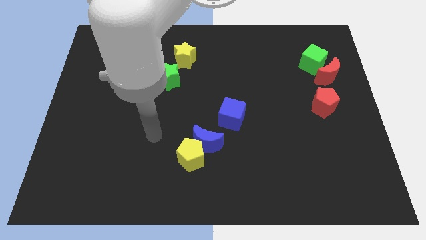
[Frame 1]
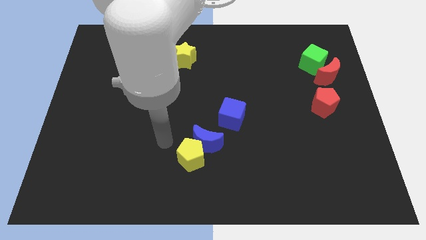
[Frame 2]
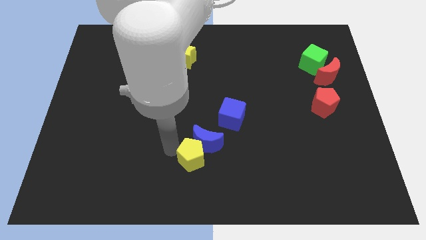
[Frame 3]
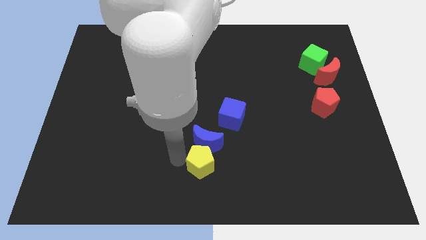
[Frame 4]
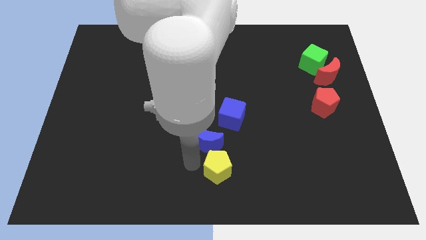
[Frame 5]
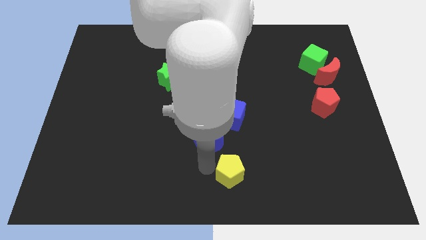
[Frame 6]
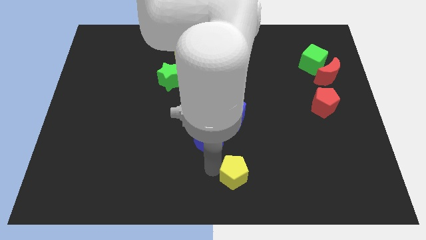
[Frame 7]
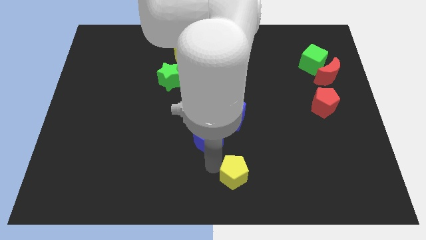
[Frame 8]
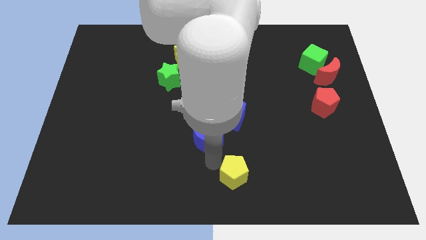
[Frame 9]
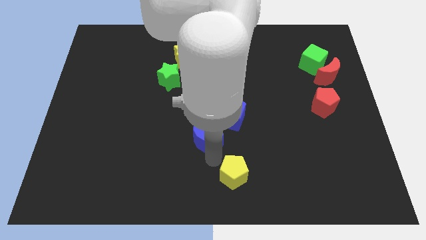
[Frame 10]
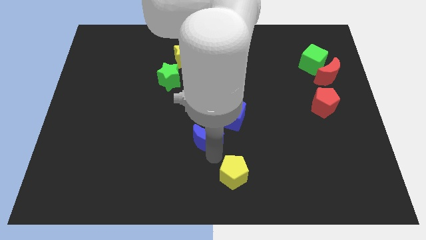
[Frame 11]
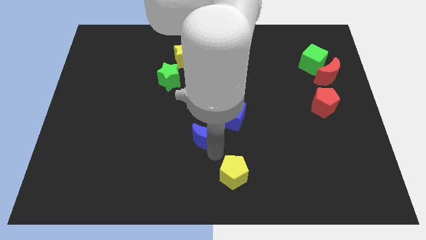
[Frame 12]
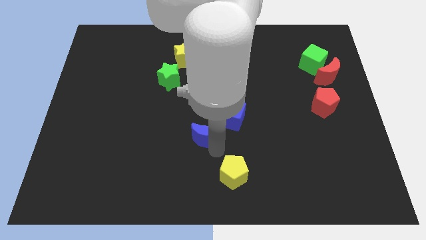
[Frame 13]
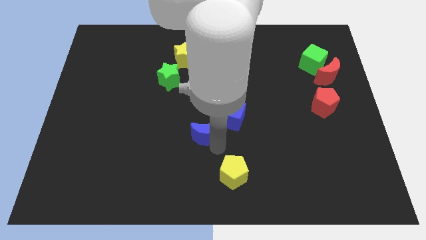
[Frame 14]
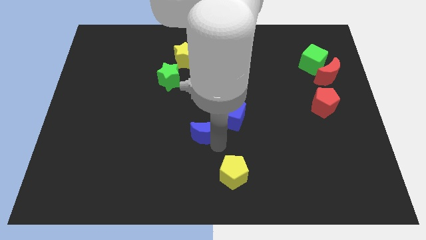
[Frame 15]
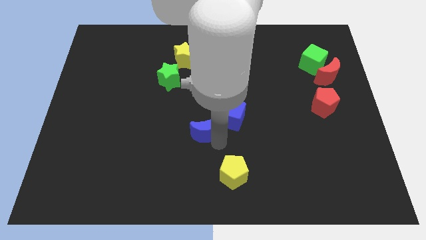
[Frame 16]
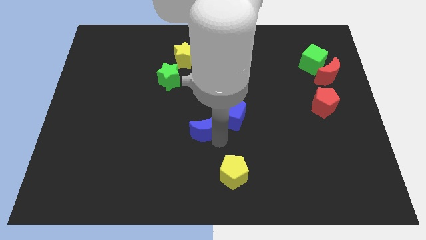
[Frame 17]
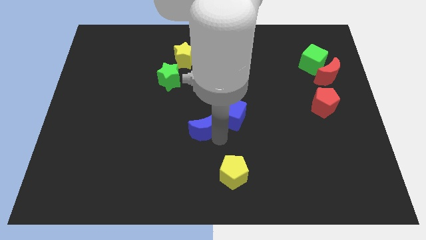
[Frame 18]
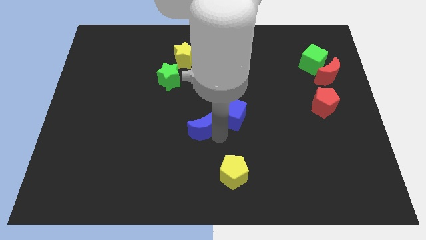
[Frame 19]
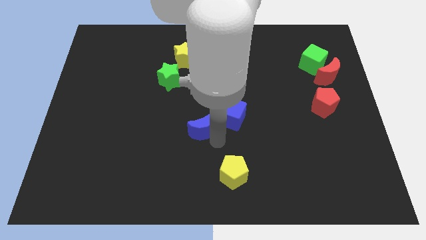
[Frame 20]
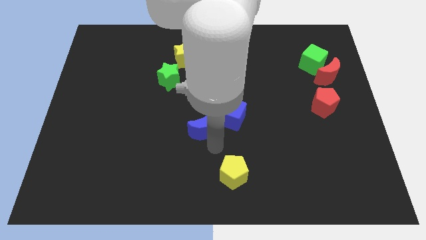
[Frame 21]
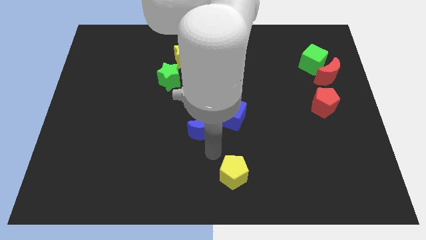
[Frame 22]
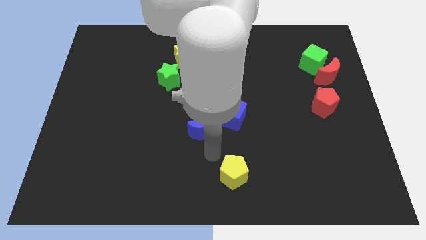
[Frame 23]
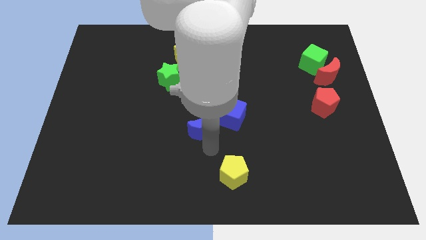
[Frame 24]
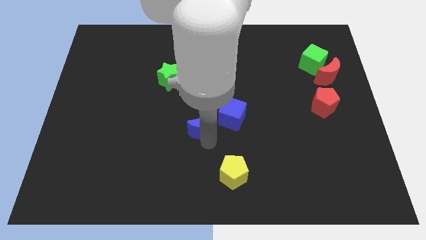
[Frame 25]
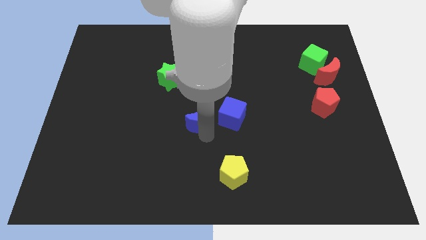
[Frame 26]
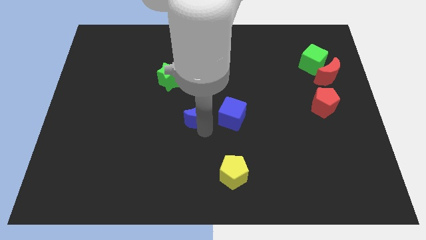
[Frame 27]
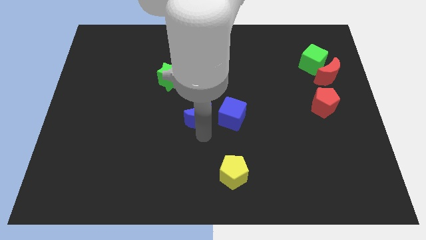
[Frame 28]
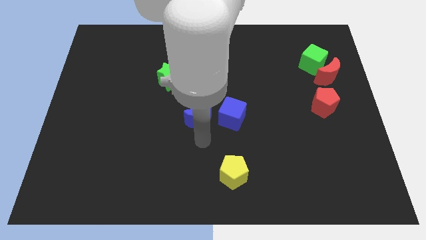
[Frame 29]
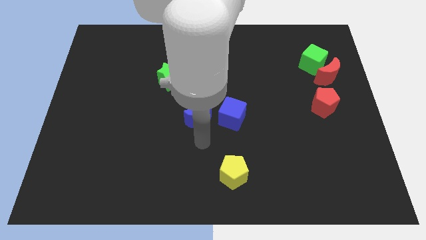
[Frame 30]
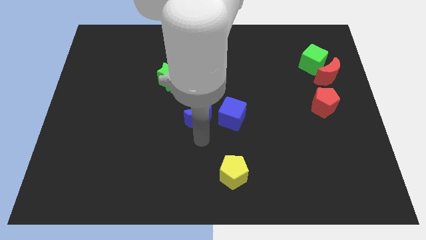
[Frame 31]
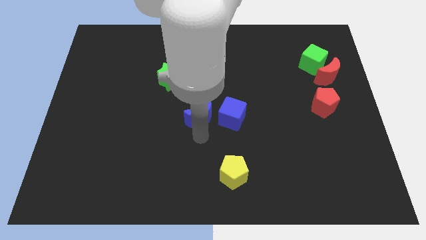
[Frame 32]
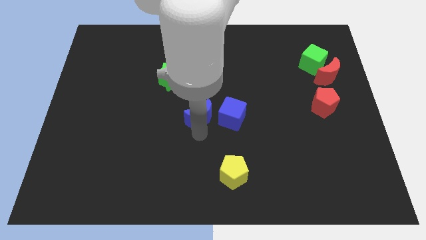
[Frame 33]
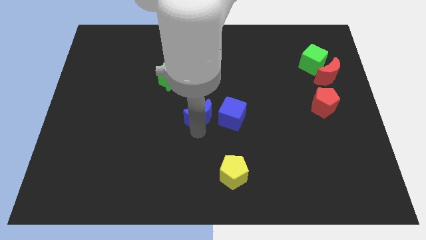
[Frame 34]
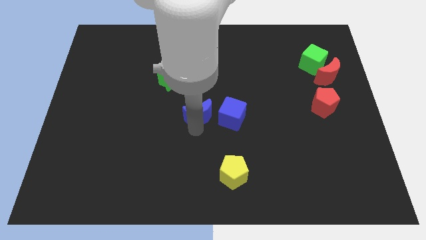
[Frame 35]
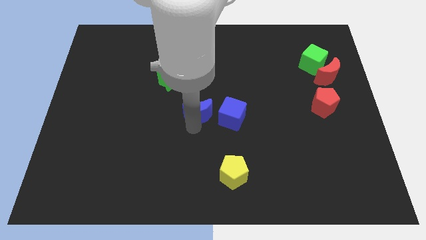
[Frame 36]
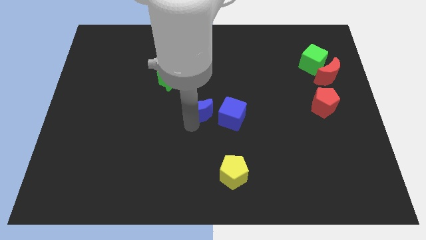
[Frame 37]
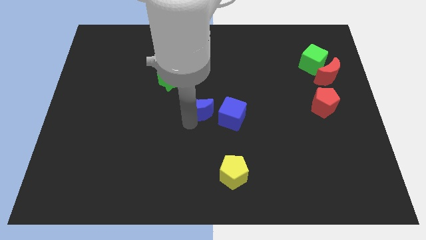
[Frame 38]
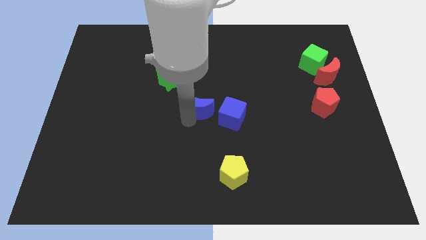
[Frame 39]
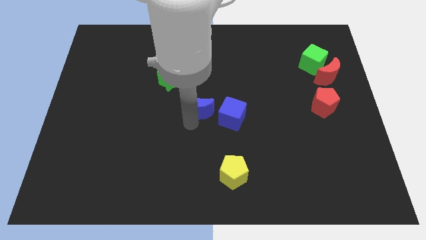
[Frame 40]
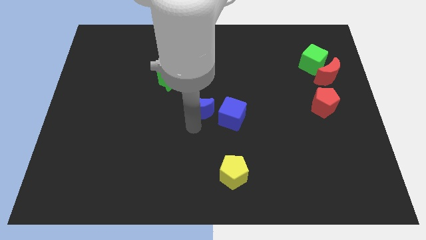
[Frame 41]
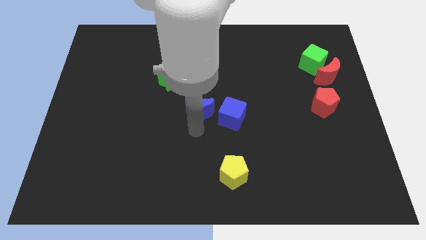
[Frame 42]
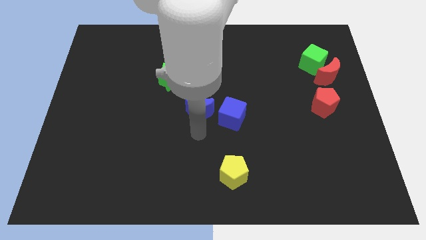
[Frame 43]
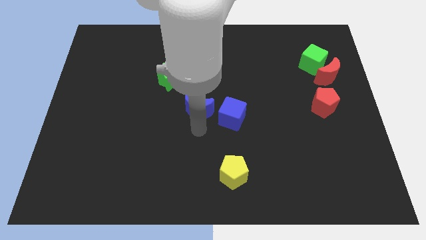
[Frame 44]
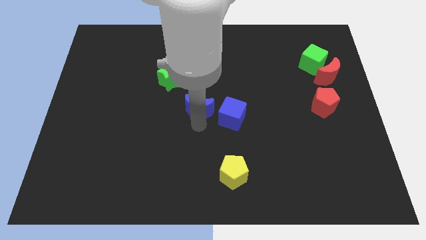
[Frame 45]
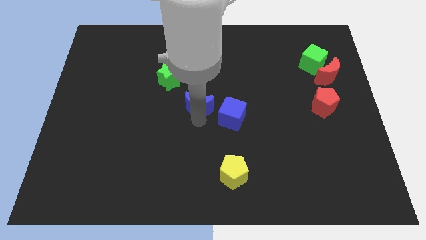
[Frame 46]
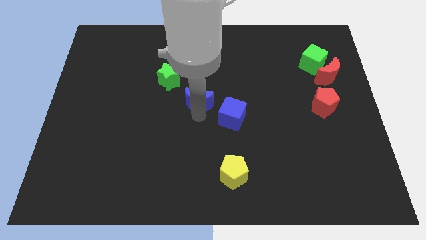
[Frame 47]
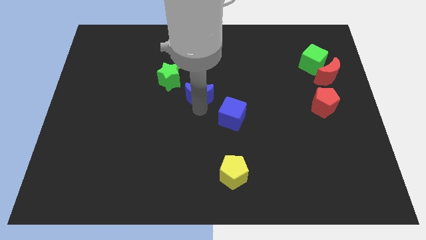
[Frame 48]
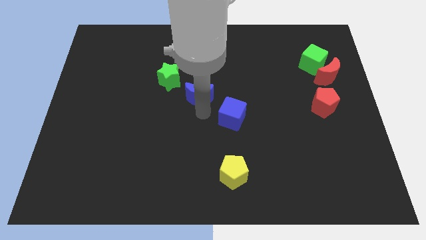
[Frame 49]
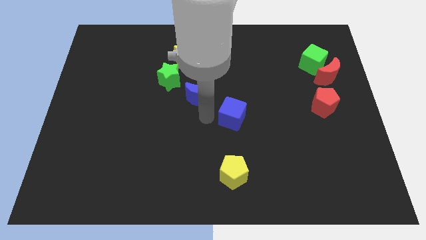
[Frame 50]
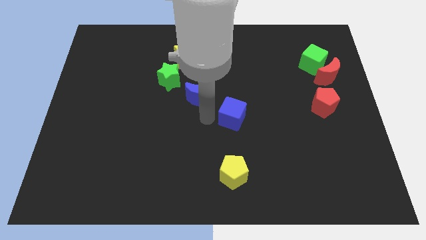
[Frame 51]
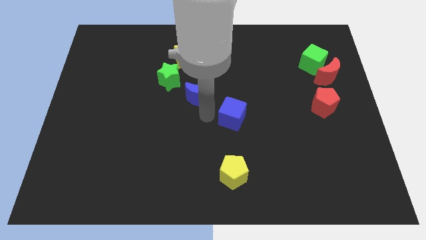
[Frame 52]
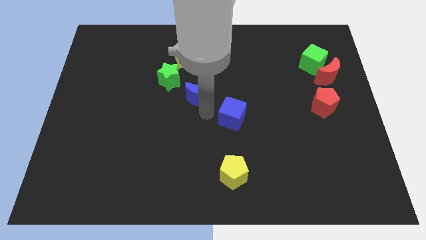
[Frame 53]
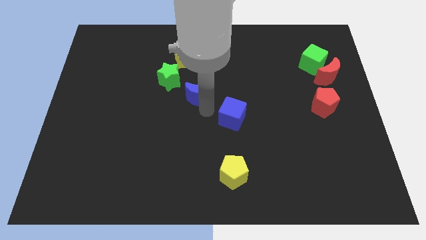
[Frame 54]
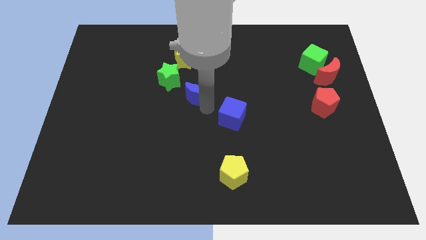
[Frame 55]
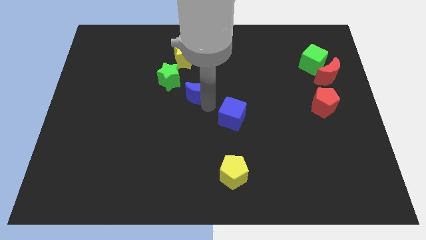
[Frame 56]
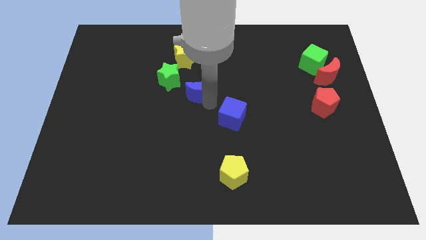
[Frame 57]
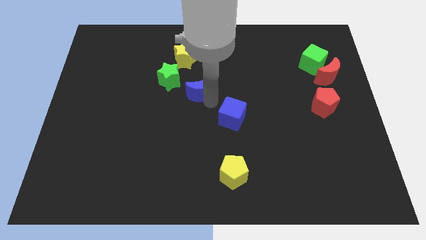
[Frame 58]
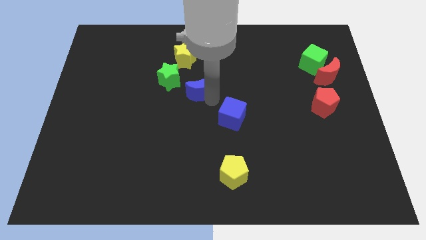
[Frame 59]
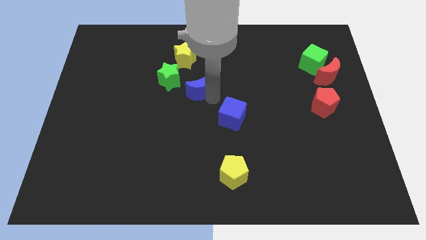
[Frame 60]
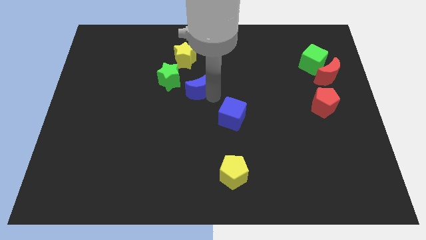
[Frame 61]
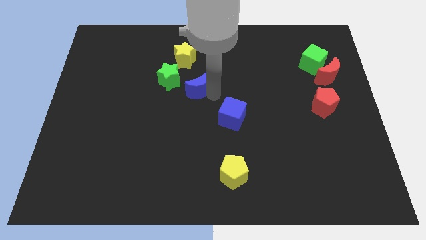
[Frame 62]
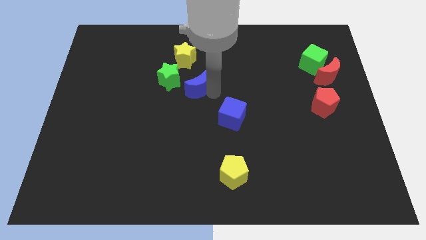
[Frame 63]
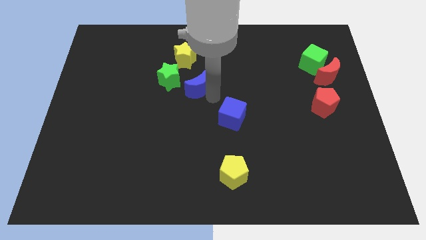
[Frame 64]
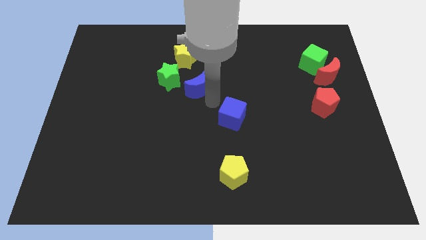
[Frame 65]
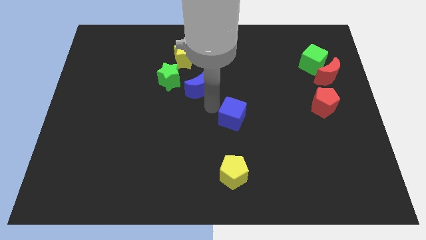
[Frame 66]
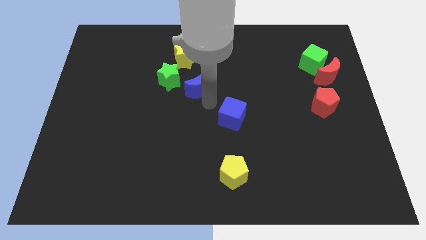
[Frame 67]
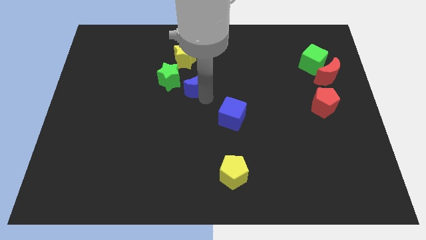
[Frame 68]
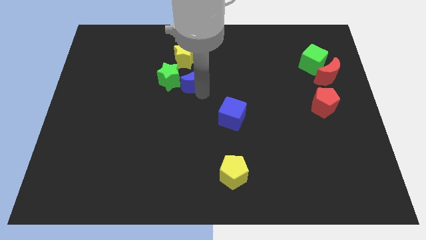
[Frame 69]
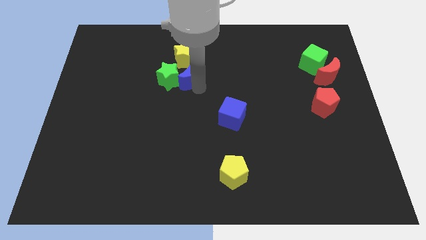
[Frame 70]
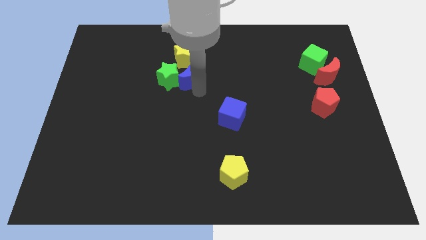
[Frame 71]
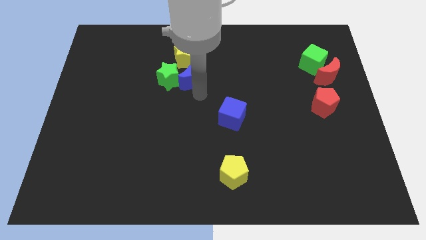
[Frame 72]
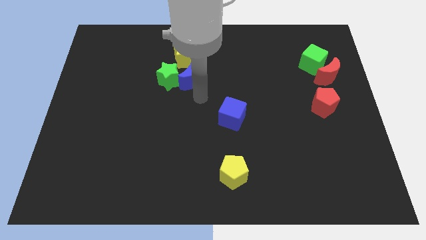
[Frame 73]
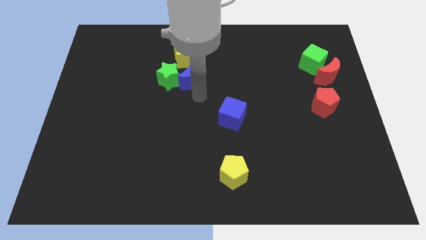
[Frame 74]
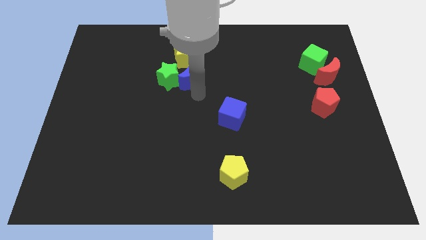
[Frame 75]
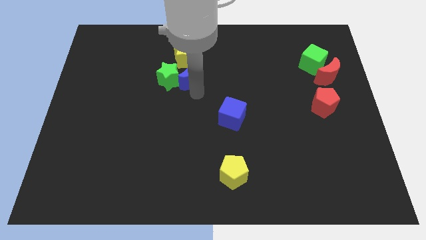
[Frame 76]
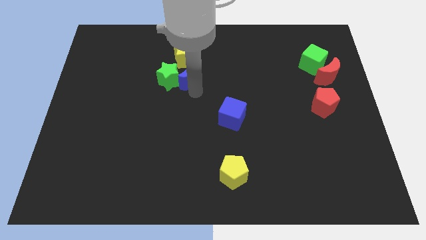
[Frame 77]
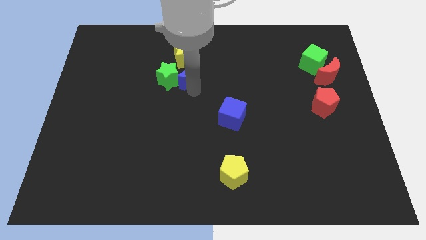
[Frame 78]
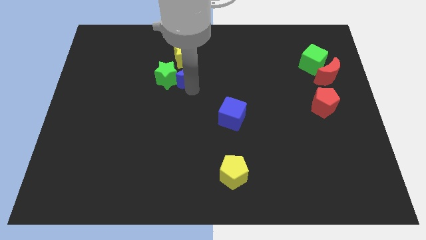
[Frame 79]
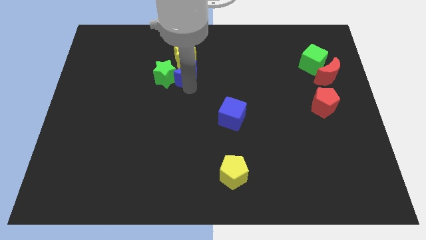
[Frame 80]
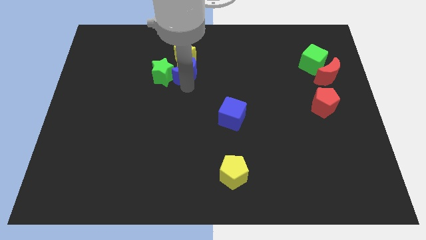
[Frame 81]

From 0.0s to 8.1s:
push the blue moon close to the yellow star
